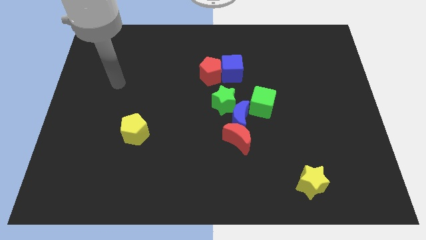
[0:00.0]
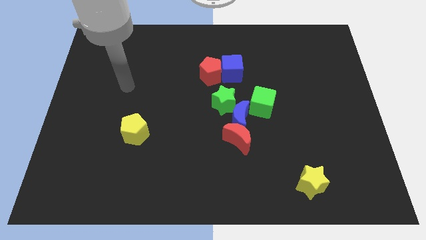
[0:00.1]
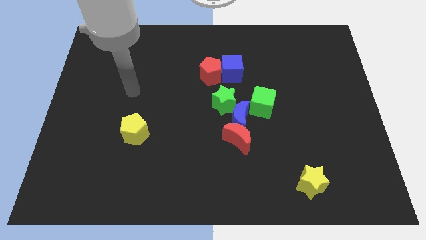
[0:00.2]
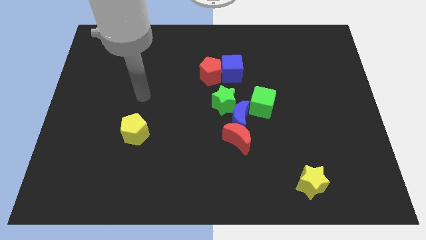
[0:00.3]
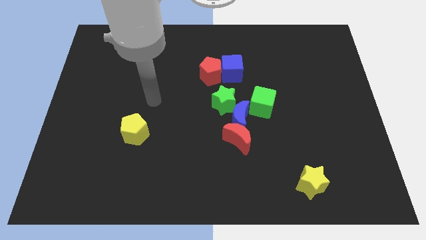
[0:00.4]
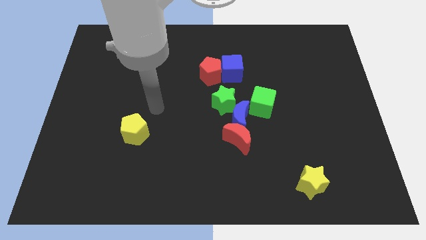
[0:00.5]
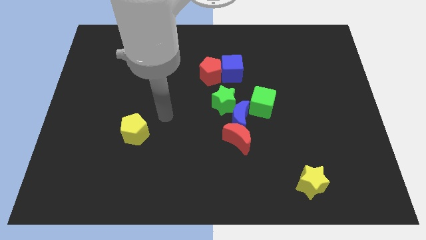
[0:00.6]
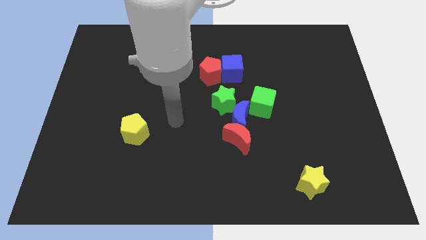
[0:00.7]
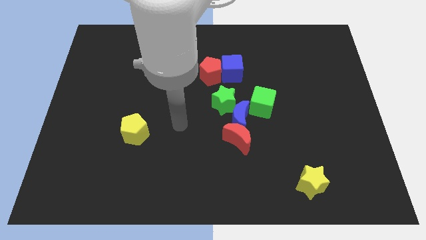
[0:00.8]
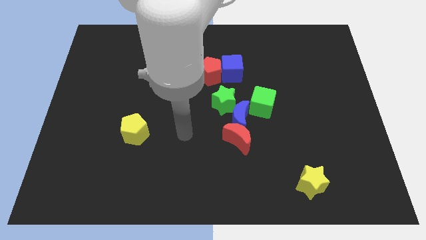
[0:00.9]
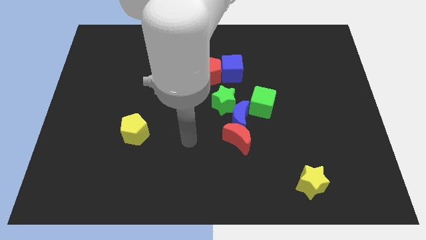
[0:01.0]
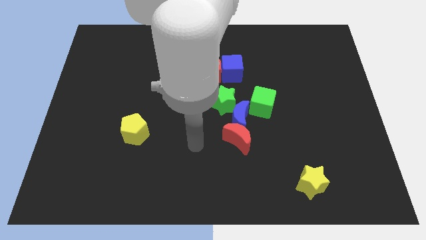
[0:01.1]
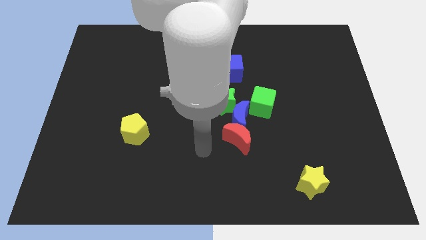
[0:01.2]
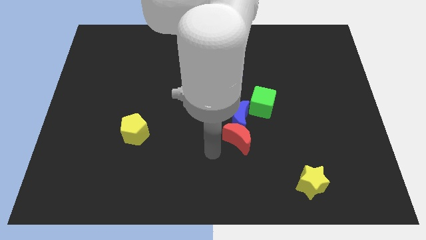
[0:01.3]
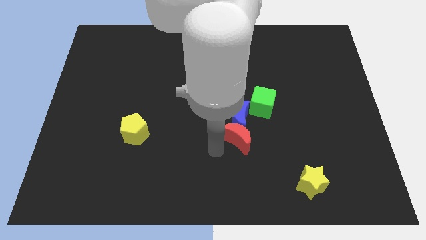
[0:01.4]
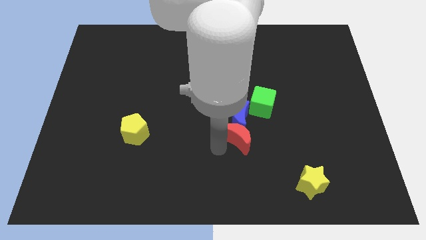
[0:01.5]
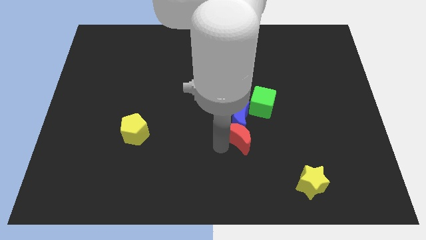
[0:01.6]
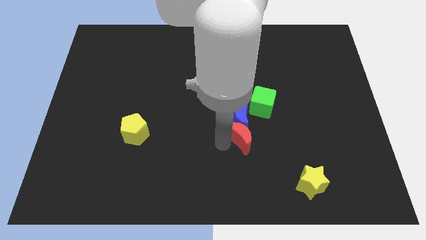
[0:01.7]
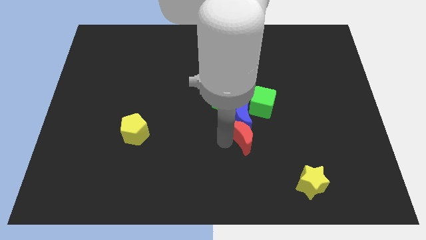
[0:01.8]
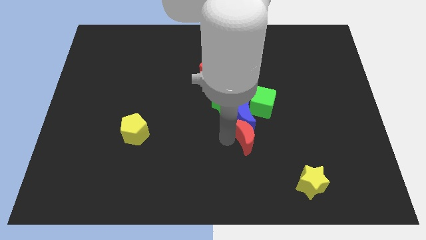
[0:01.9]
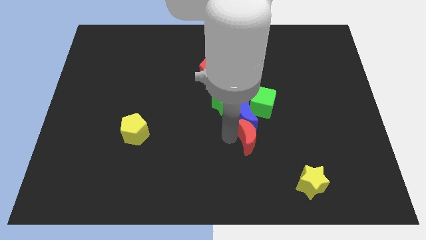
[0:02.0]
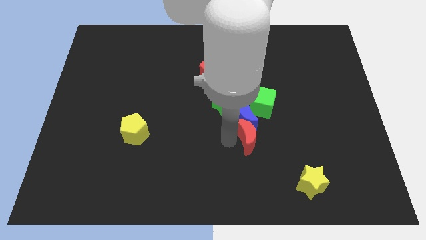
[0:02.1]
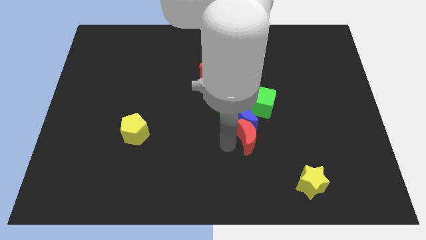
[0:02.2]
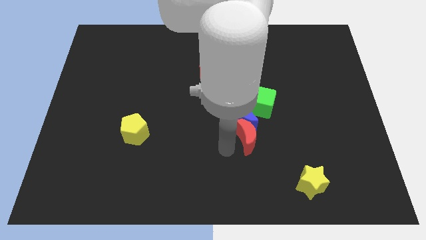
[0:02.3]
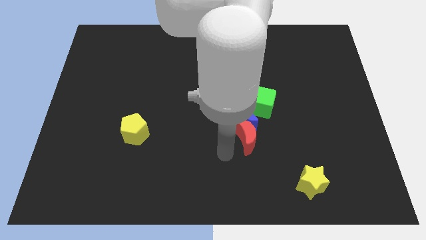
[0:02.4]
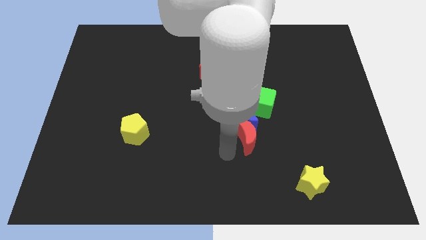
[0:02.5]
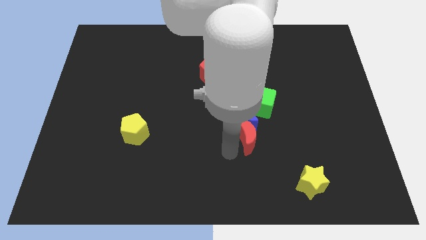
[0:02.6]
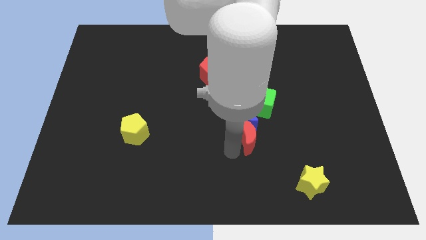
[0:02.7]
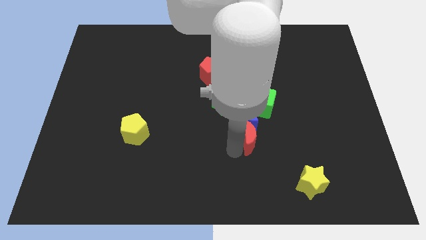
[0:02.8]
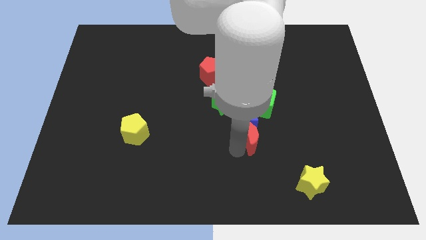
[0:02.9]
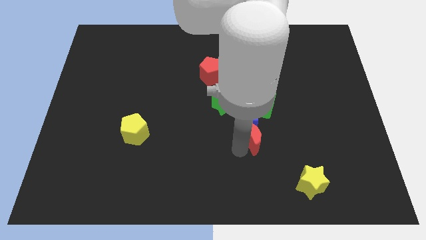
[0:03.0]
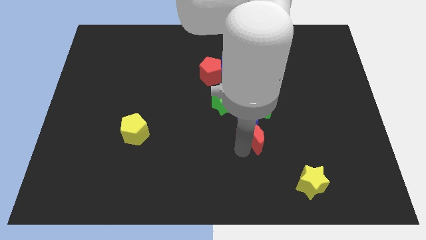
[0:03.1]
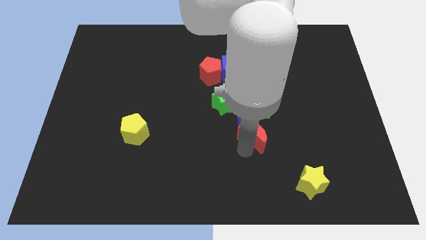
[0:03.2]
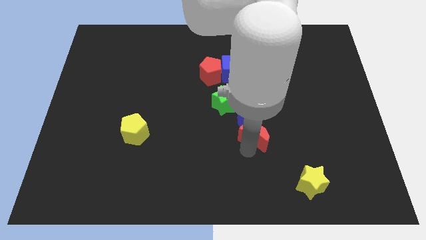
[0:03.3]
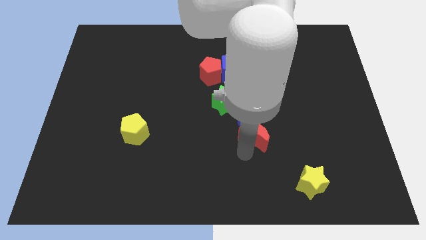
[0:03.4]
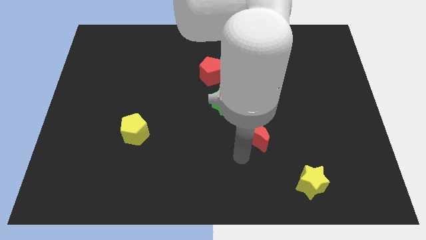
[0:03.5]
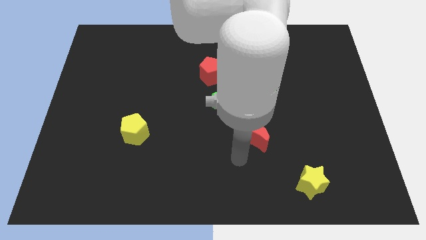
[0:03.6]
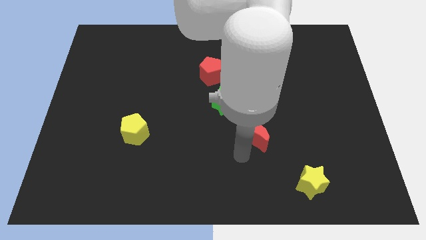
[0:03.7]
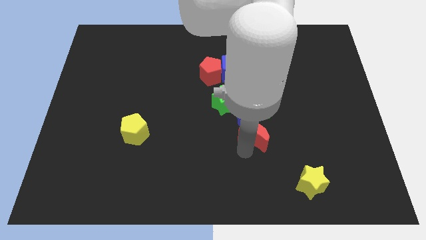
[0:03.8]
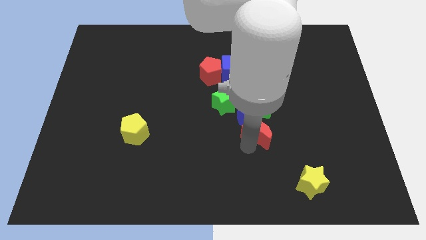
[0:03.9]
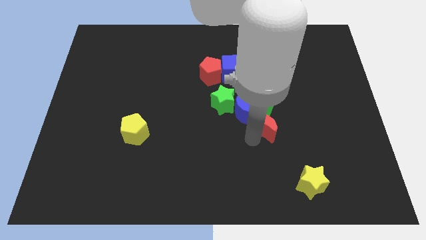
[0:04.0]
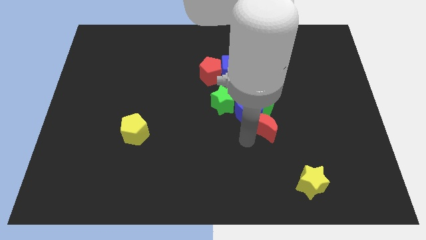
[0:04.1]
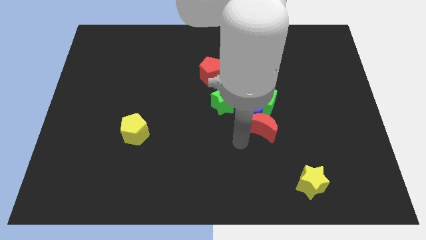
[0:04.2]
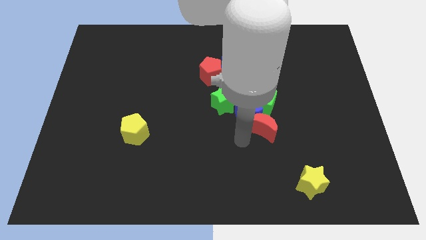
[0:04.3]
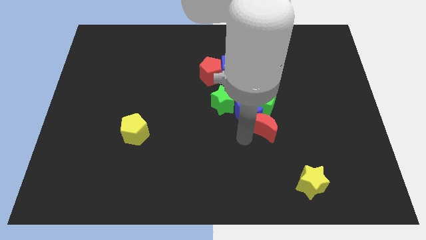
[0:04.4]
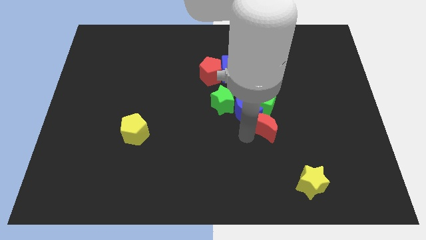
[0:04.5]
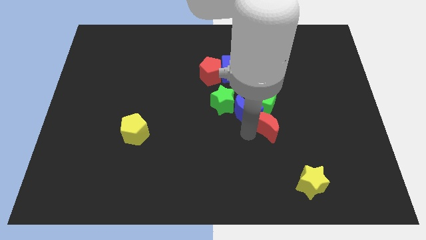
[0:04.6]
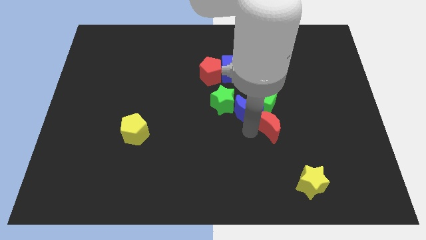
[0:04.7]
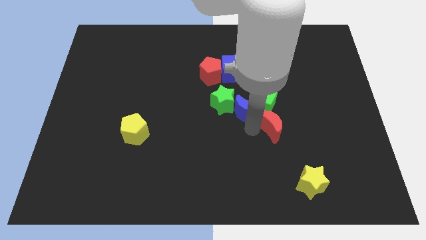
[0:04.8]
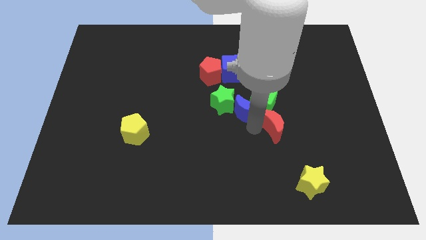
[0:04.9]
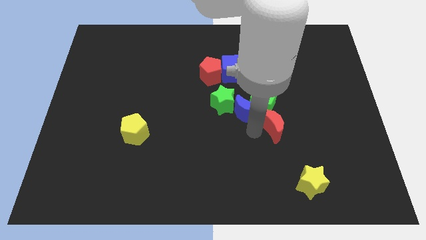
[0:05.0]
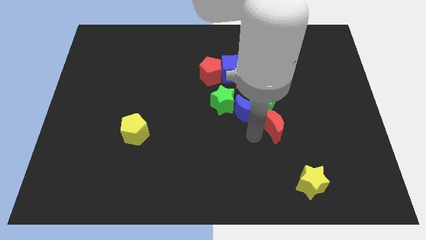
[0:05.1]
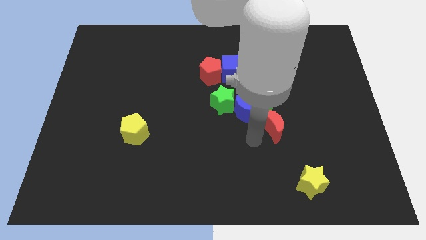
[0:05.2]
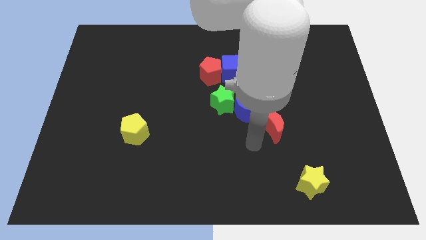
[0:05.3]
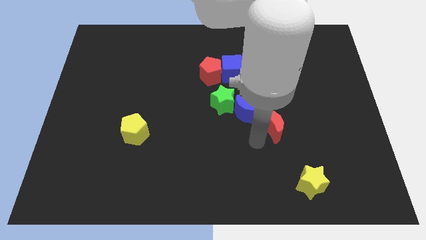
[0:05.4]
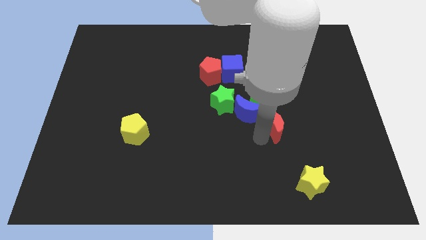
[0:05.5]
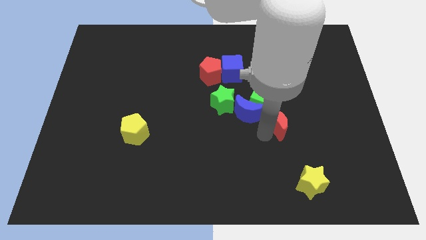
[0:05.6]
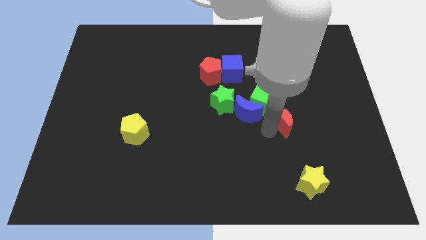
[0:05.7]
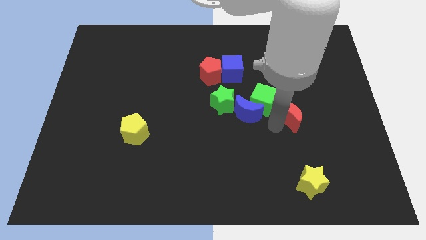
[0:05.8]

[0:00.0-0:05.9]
move the red moon right of the green cube
